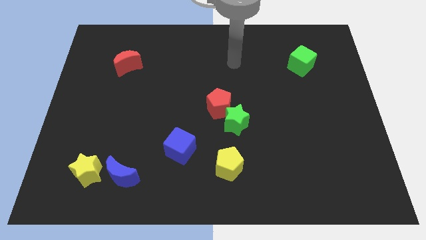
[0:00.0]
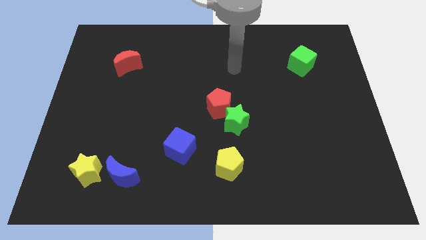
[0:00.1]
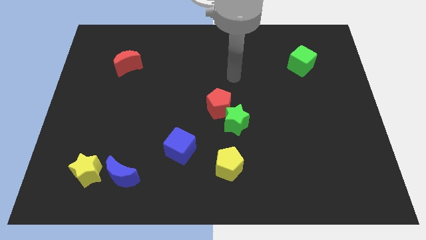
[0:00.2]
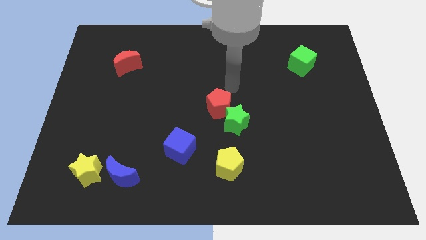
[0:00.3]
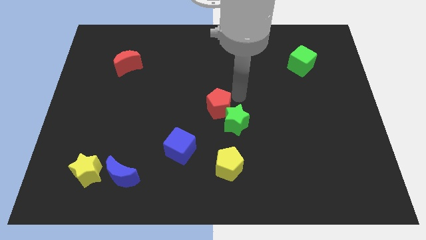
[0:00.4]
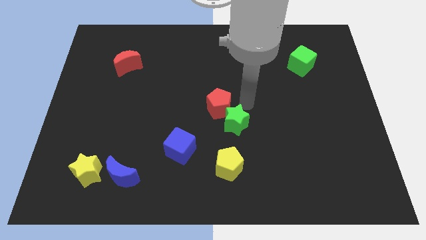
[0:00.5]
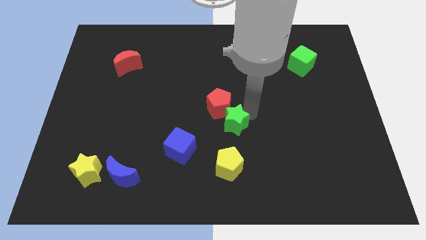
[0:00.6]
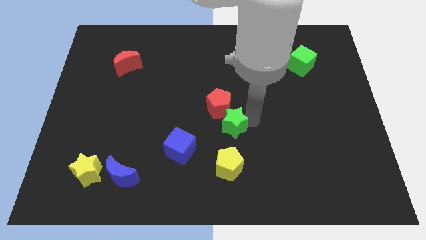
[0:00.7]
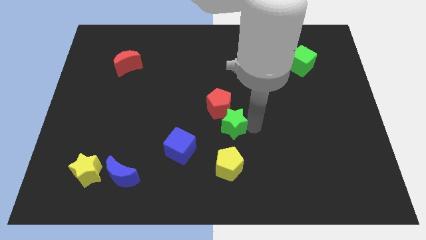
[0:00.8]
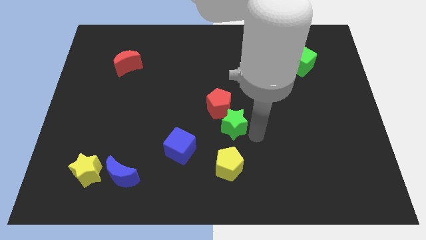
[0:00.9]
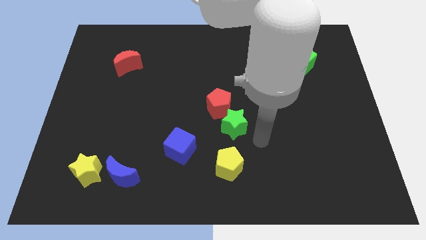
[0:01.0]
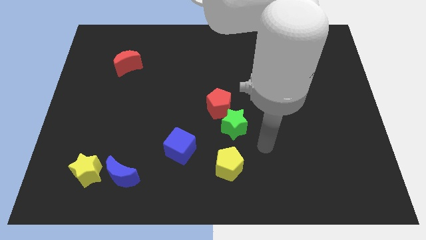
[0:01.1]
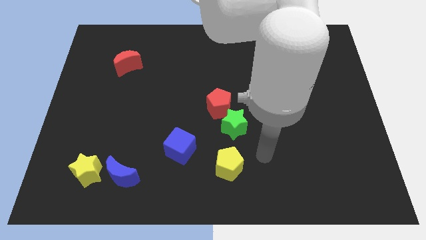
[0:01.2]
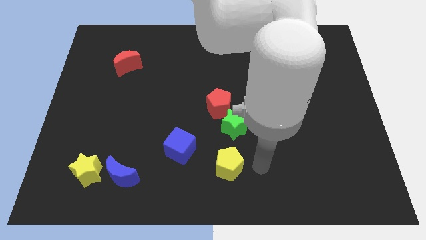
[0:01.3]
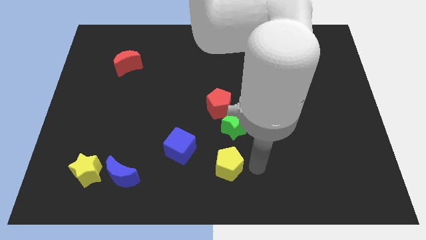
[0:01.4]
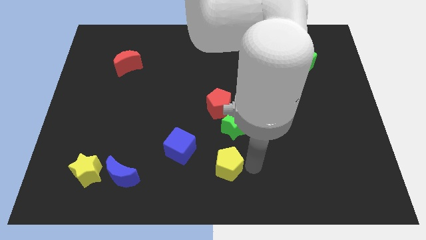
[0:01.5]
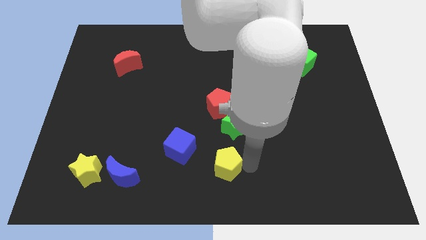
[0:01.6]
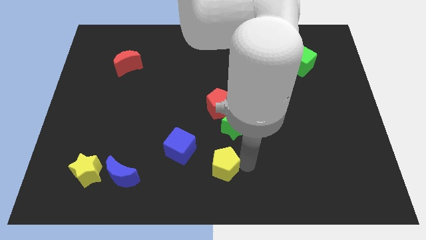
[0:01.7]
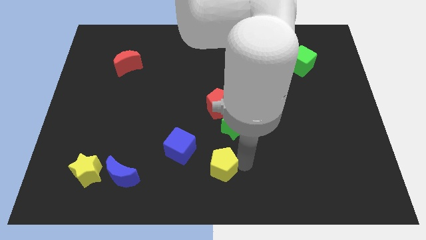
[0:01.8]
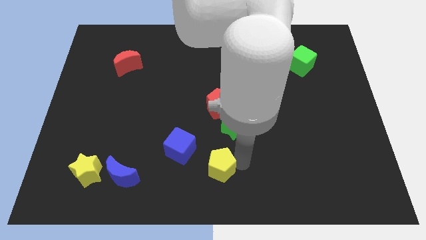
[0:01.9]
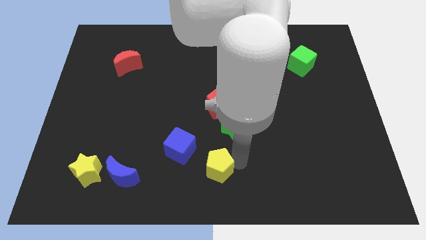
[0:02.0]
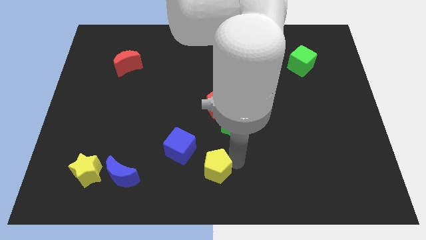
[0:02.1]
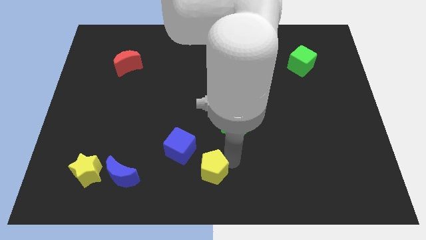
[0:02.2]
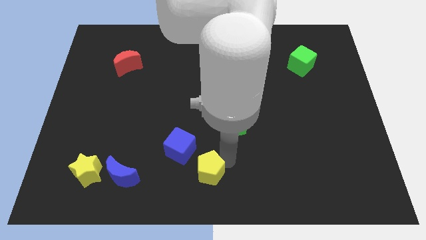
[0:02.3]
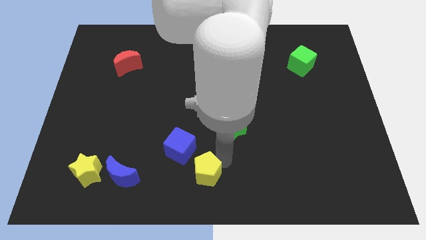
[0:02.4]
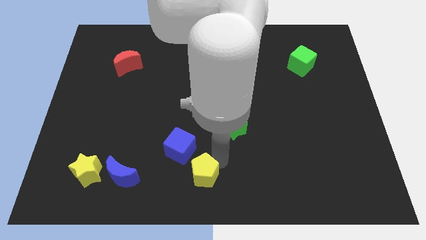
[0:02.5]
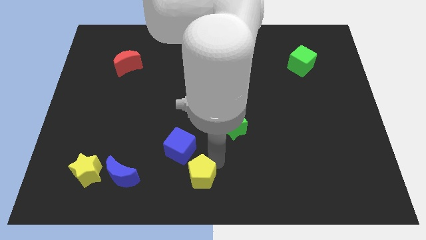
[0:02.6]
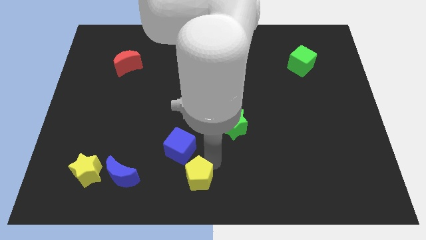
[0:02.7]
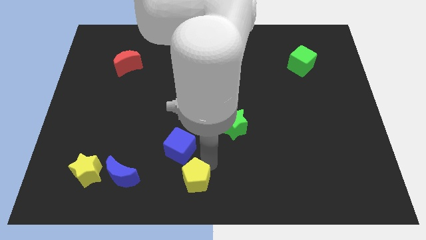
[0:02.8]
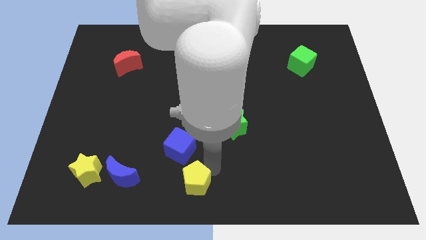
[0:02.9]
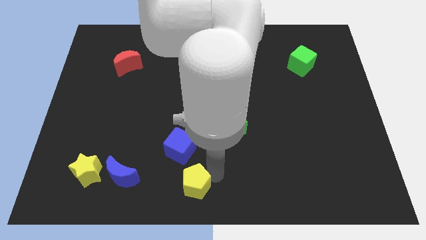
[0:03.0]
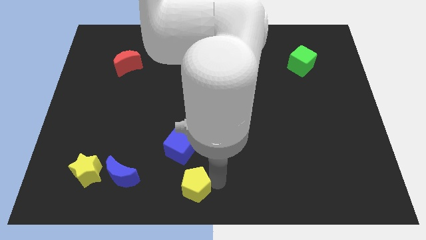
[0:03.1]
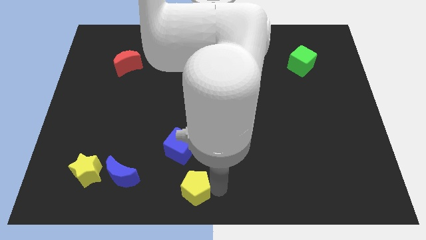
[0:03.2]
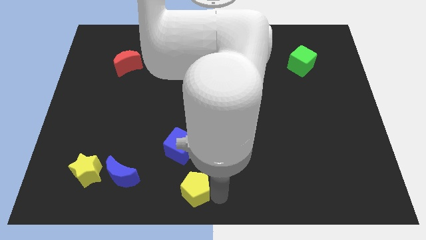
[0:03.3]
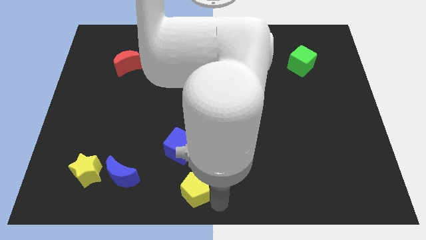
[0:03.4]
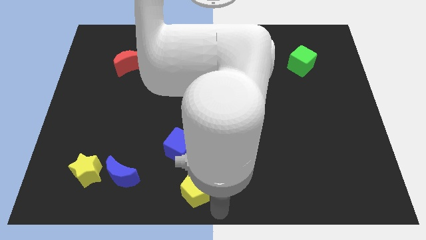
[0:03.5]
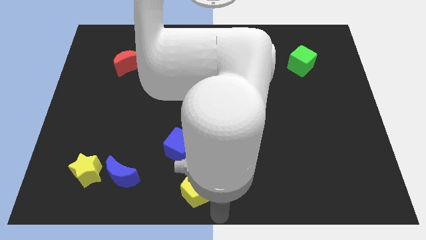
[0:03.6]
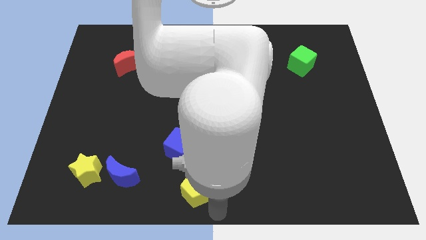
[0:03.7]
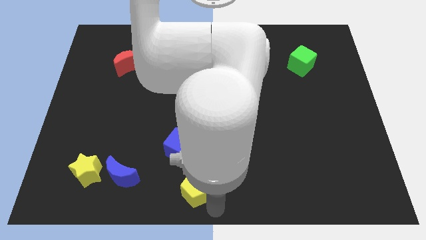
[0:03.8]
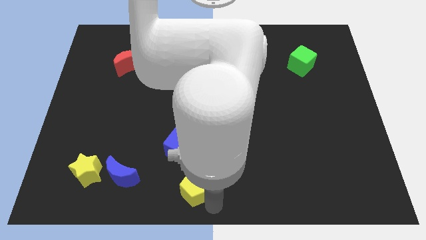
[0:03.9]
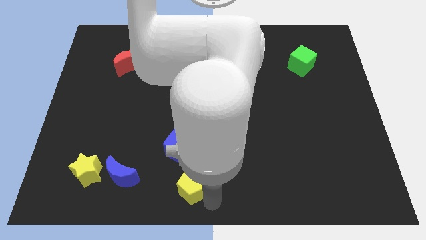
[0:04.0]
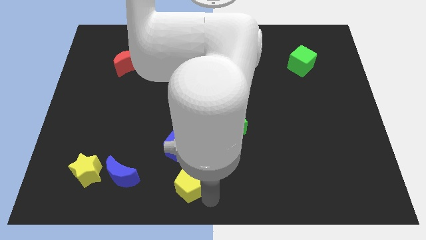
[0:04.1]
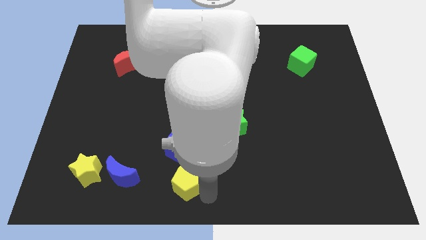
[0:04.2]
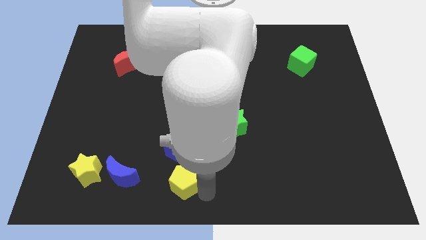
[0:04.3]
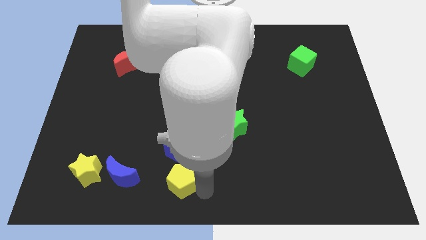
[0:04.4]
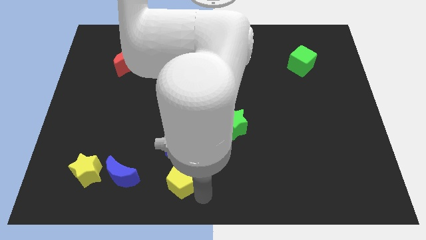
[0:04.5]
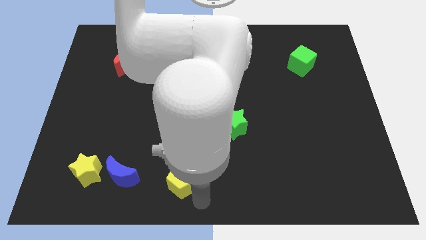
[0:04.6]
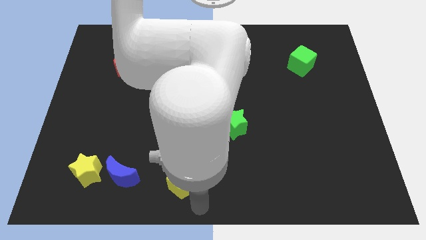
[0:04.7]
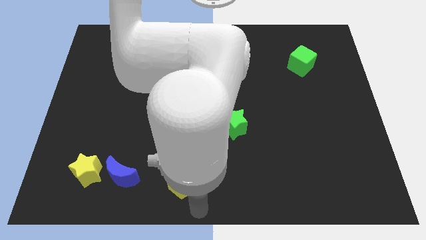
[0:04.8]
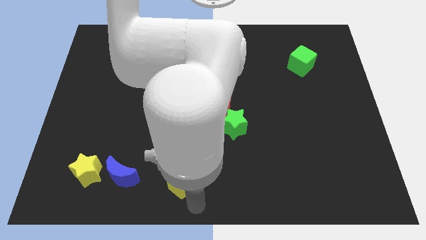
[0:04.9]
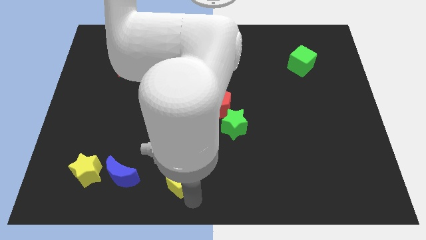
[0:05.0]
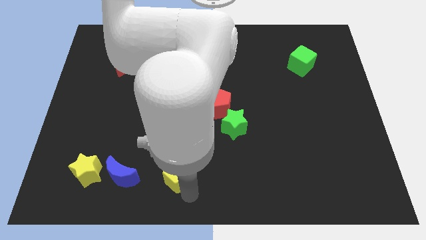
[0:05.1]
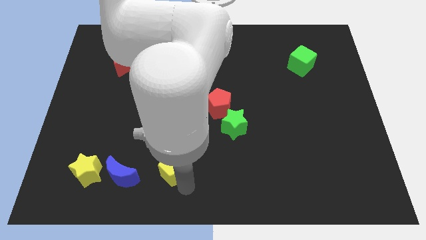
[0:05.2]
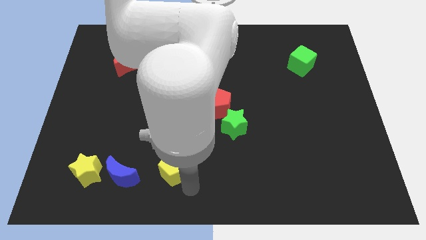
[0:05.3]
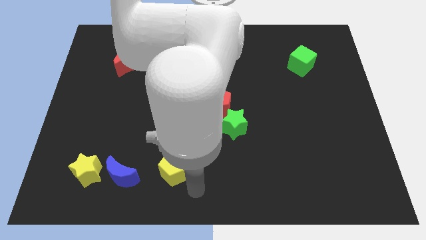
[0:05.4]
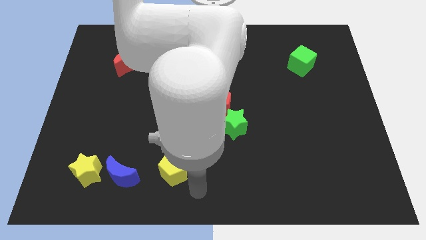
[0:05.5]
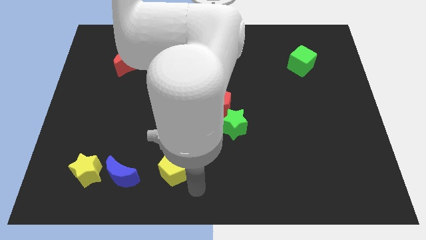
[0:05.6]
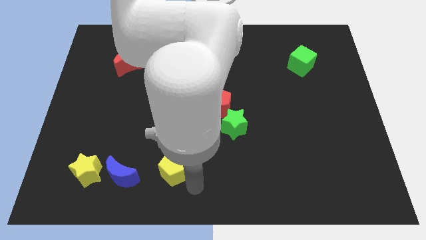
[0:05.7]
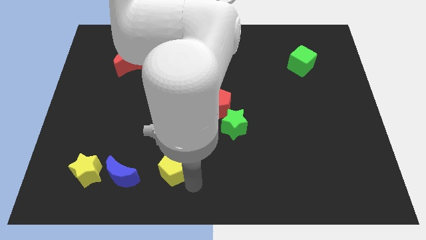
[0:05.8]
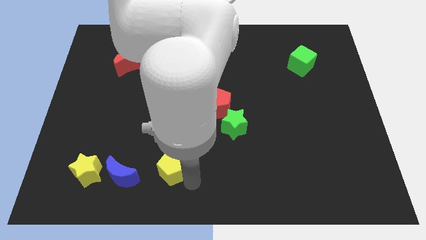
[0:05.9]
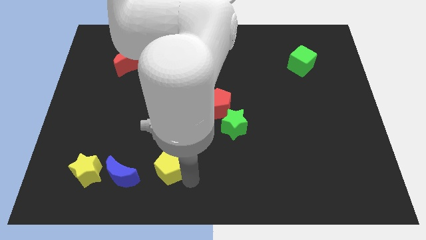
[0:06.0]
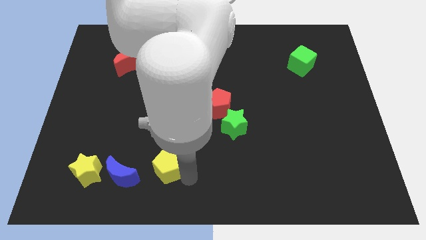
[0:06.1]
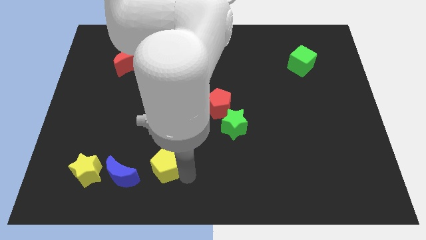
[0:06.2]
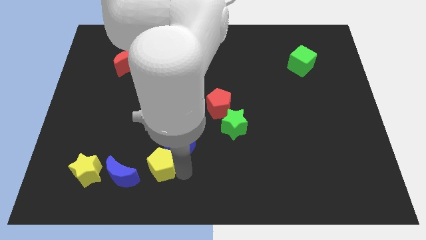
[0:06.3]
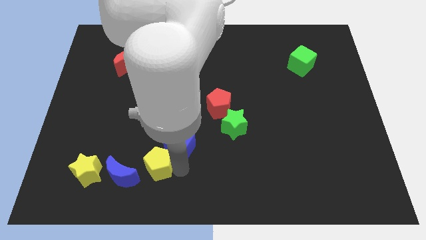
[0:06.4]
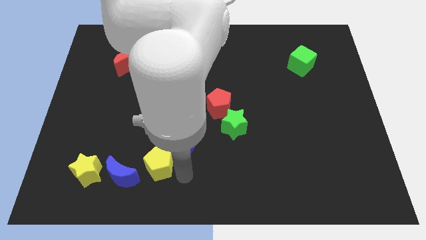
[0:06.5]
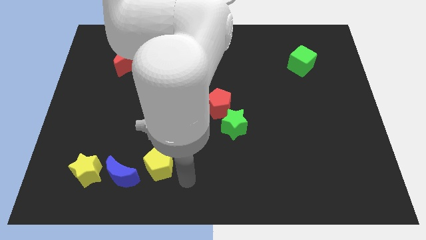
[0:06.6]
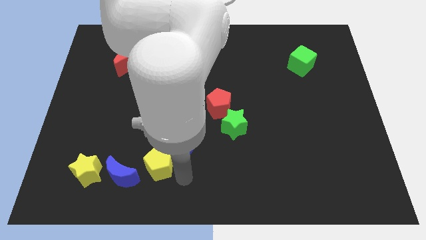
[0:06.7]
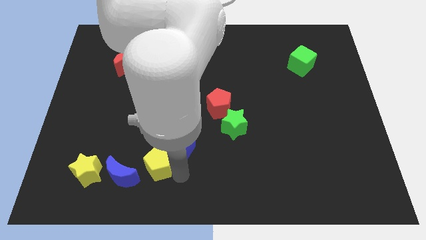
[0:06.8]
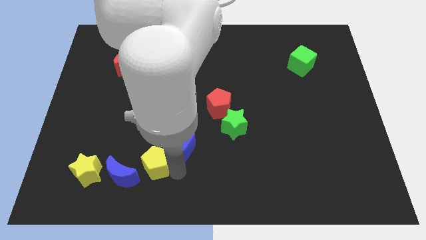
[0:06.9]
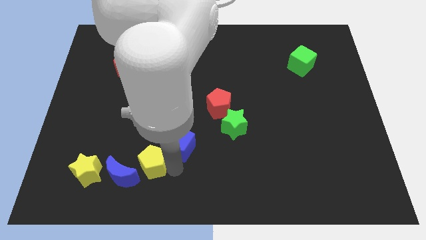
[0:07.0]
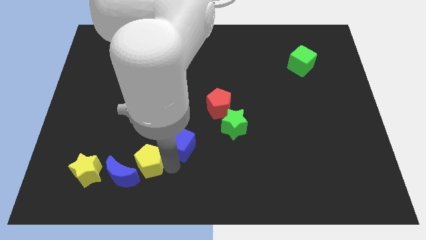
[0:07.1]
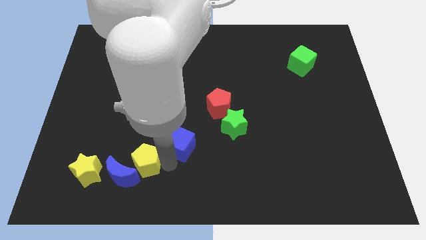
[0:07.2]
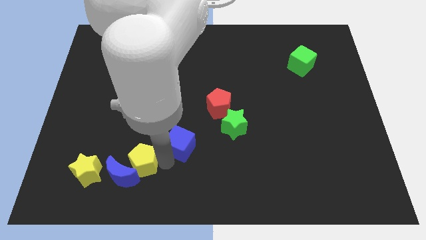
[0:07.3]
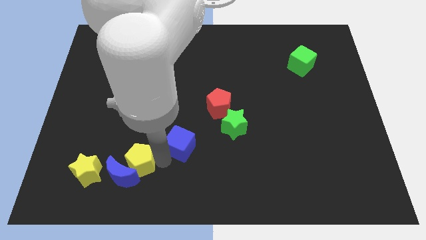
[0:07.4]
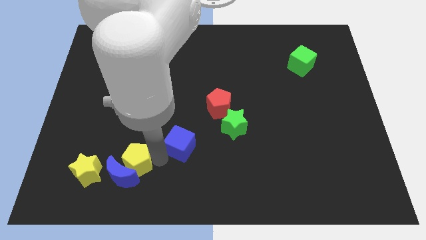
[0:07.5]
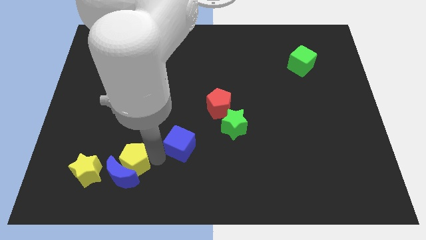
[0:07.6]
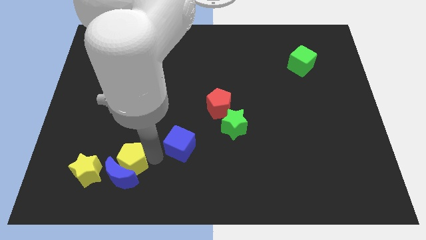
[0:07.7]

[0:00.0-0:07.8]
slide the yellow pentagon diagonally up and to the left of the blue moon
